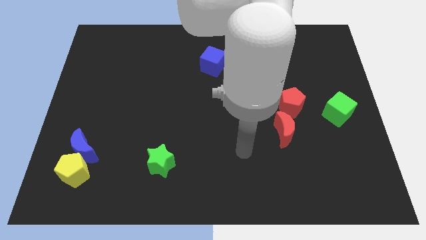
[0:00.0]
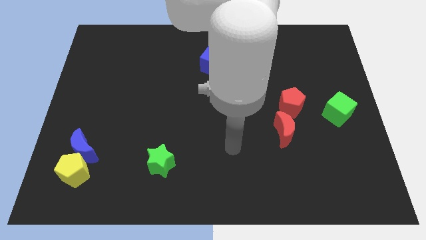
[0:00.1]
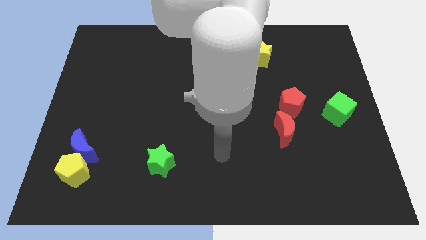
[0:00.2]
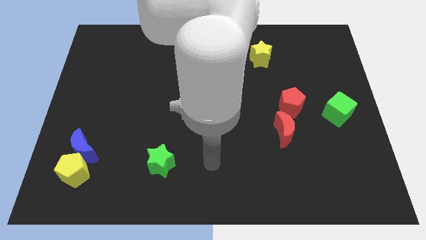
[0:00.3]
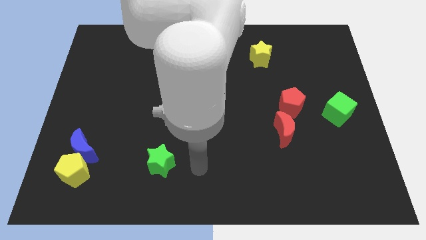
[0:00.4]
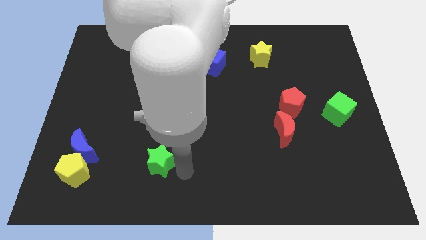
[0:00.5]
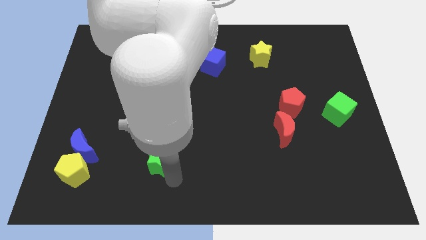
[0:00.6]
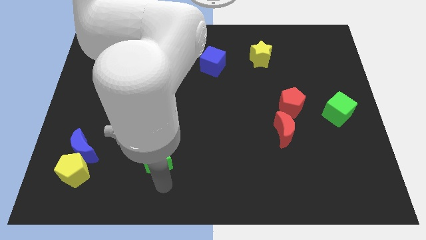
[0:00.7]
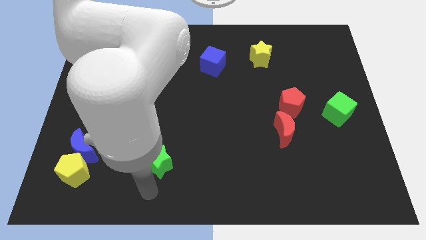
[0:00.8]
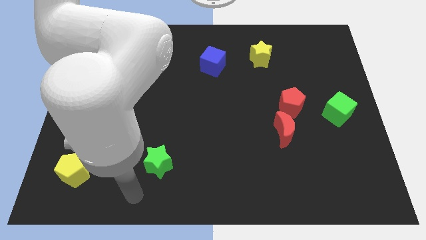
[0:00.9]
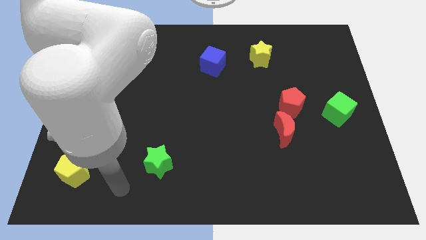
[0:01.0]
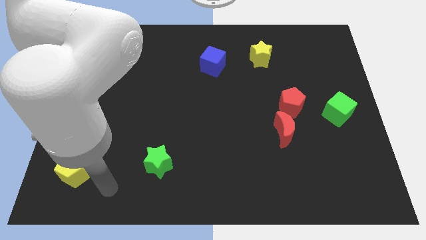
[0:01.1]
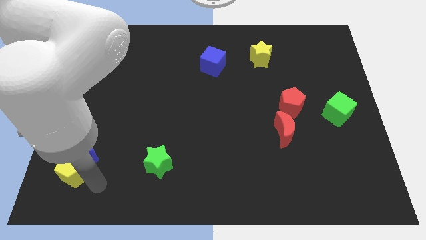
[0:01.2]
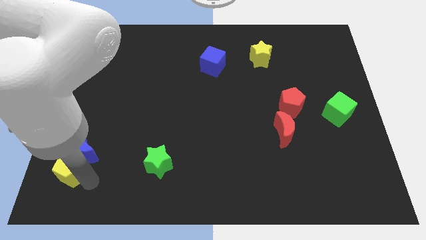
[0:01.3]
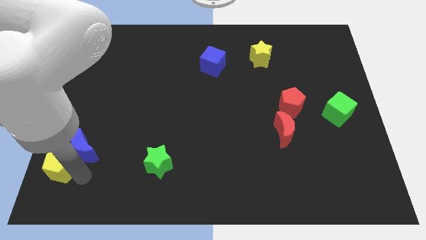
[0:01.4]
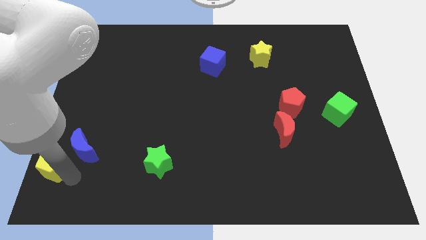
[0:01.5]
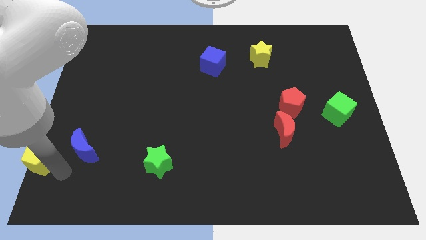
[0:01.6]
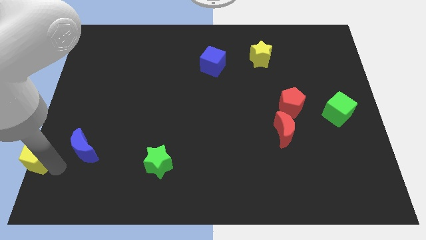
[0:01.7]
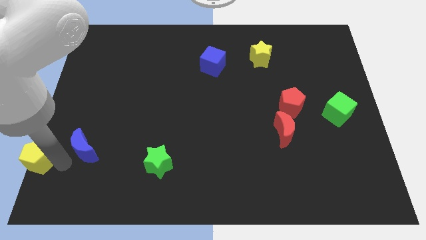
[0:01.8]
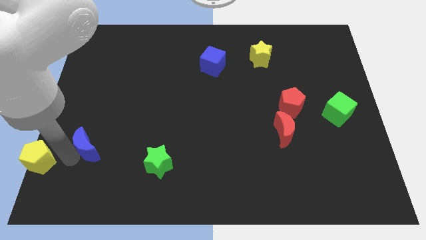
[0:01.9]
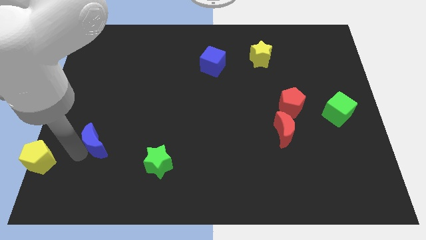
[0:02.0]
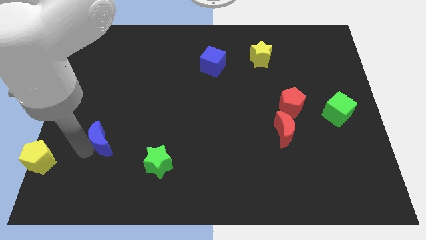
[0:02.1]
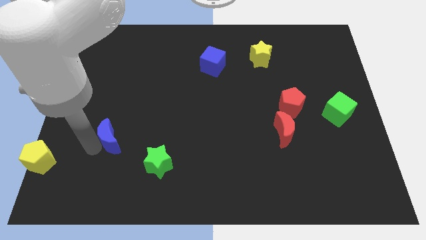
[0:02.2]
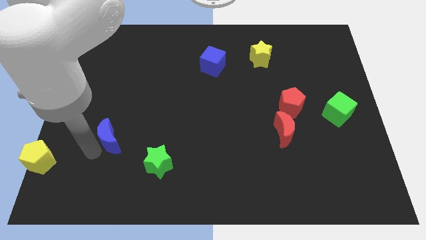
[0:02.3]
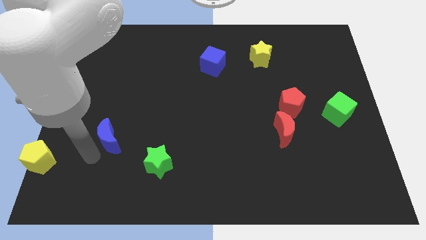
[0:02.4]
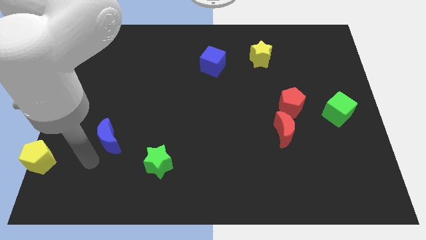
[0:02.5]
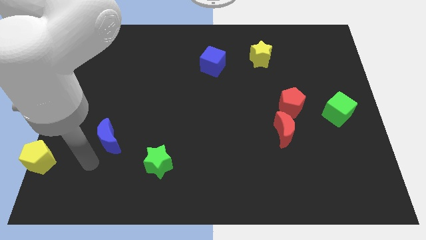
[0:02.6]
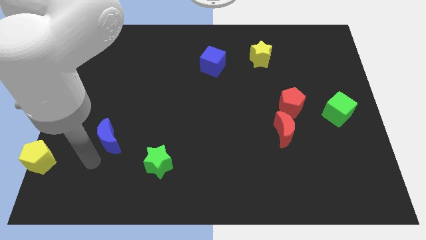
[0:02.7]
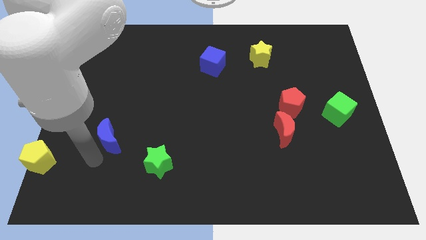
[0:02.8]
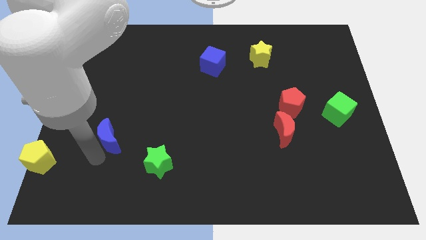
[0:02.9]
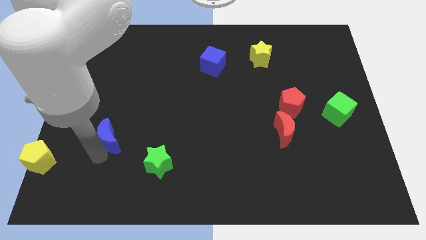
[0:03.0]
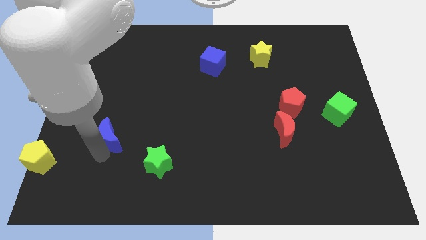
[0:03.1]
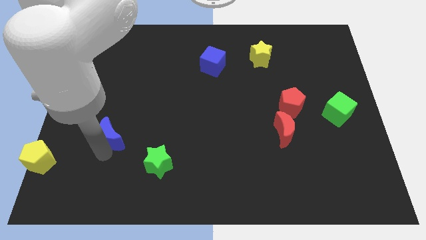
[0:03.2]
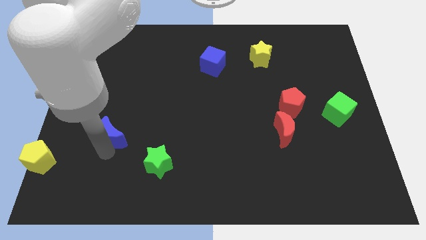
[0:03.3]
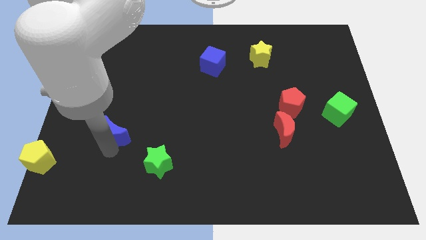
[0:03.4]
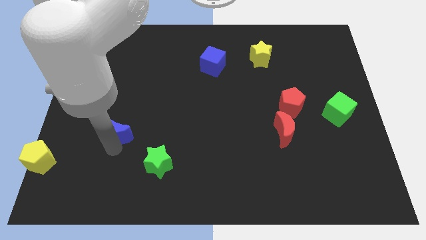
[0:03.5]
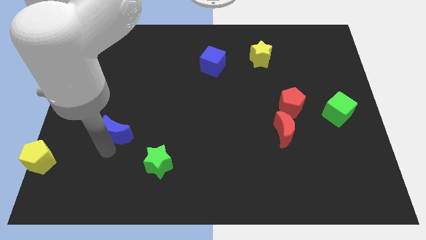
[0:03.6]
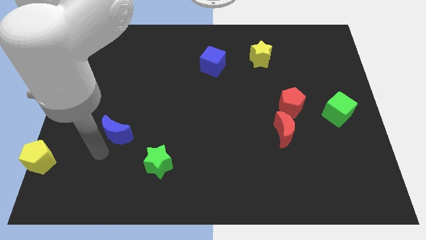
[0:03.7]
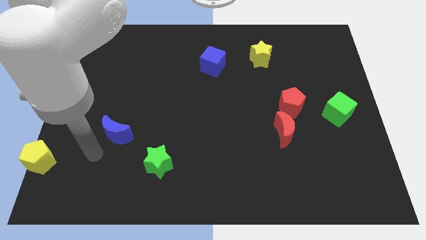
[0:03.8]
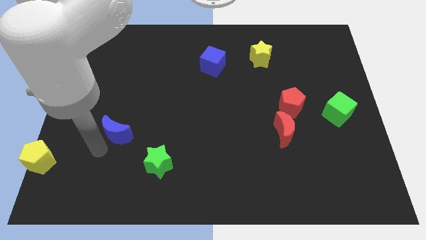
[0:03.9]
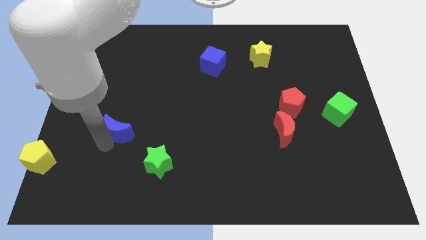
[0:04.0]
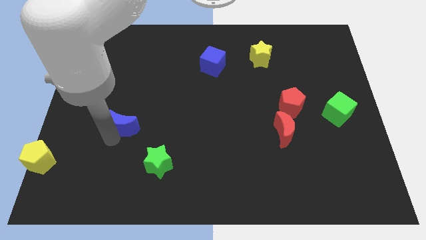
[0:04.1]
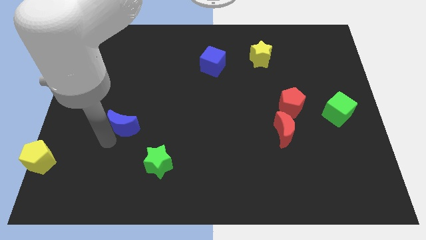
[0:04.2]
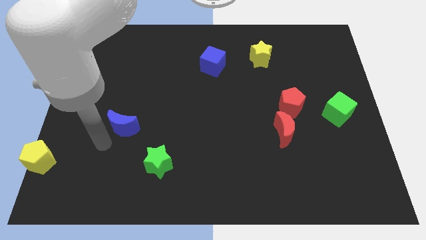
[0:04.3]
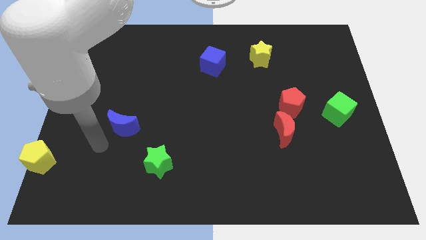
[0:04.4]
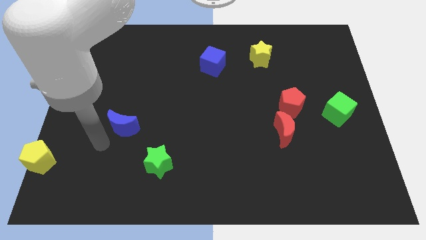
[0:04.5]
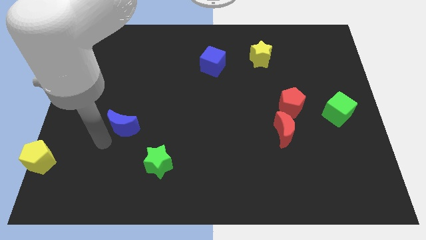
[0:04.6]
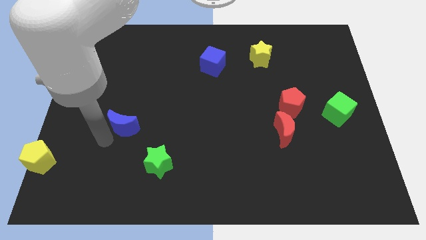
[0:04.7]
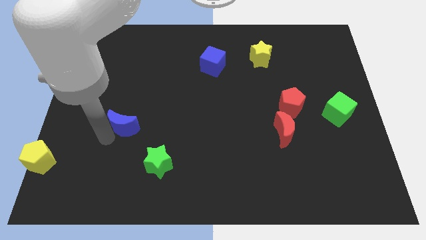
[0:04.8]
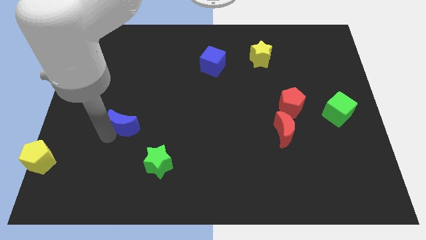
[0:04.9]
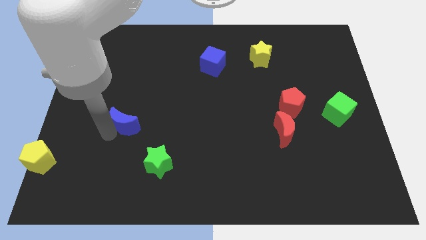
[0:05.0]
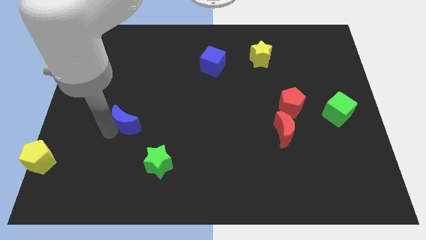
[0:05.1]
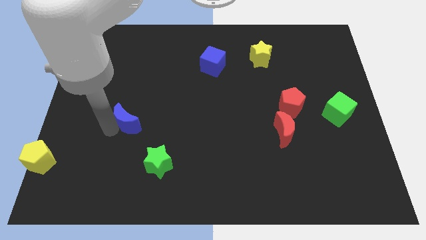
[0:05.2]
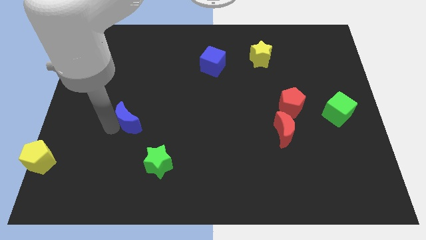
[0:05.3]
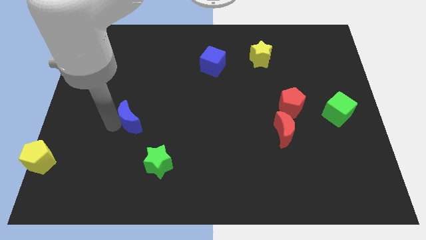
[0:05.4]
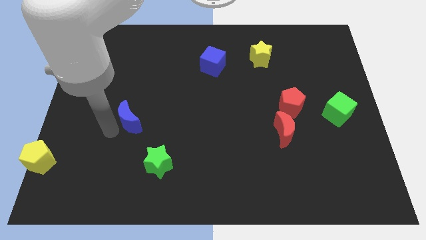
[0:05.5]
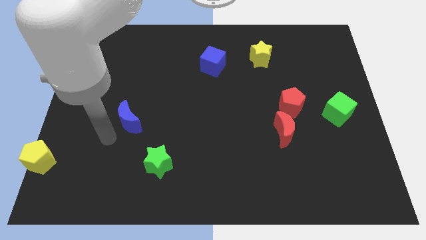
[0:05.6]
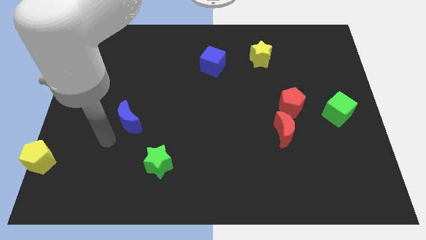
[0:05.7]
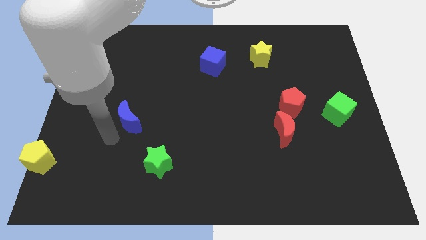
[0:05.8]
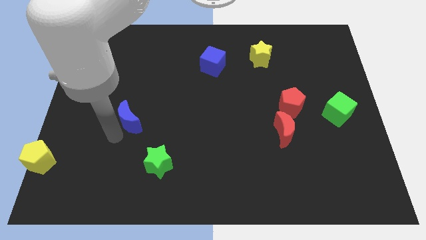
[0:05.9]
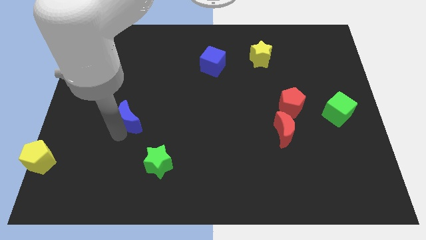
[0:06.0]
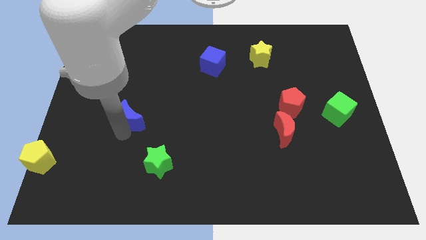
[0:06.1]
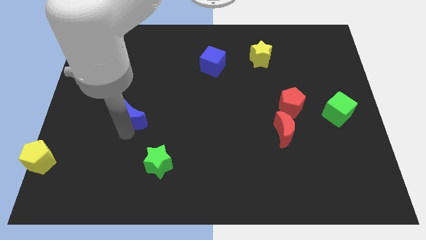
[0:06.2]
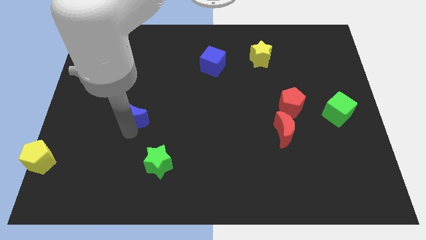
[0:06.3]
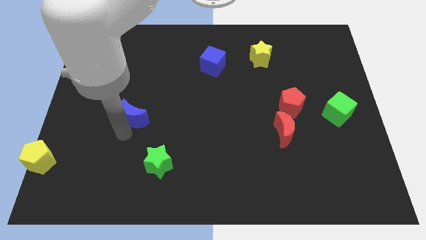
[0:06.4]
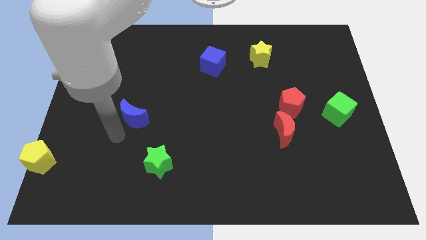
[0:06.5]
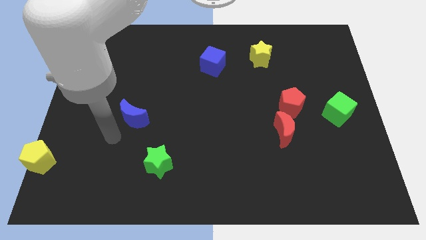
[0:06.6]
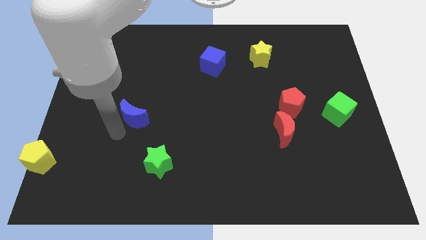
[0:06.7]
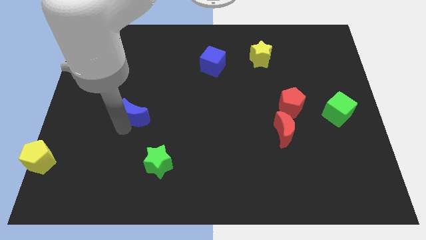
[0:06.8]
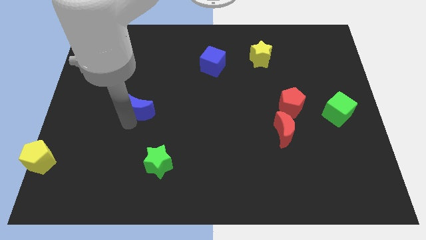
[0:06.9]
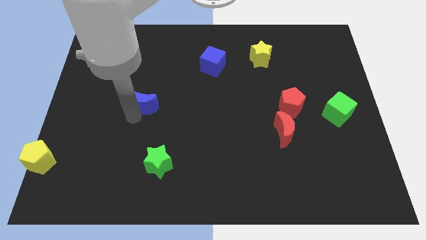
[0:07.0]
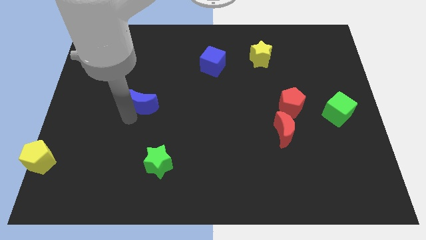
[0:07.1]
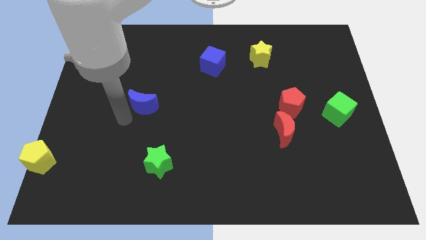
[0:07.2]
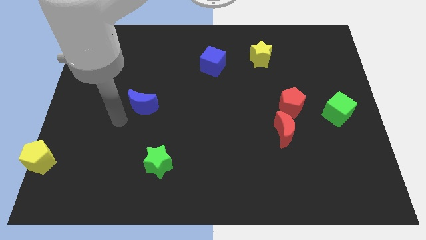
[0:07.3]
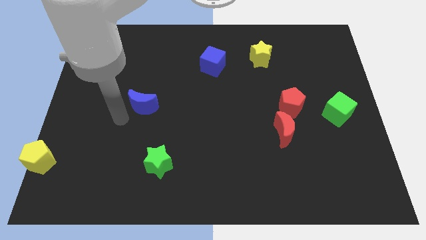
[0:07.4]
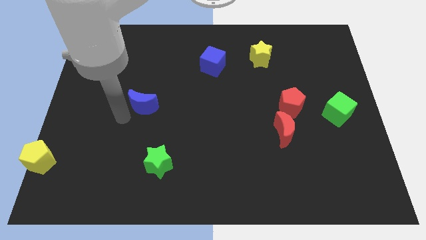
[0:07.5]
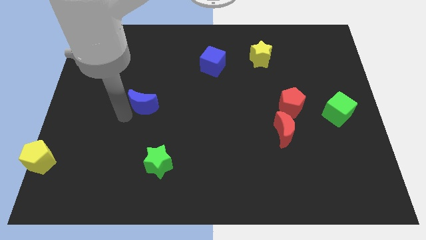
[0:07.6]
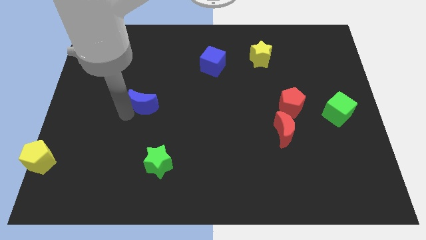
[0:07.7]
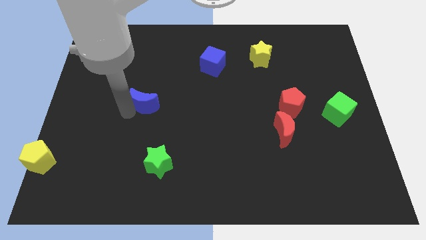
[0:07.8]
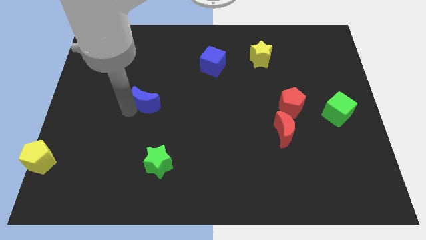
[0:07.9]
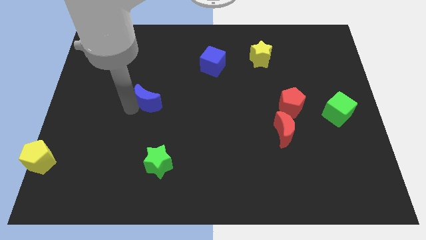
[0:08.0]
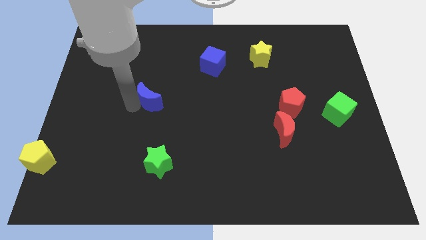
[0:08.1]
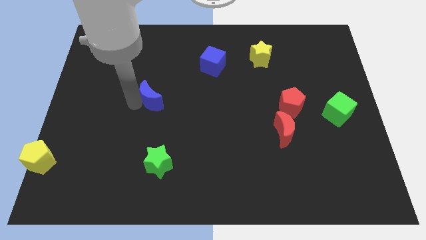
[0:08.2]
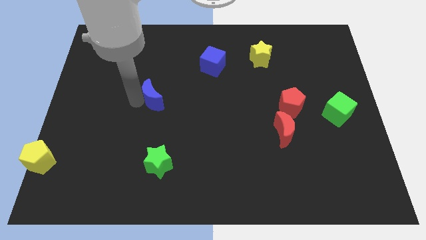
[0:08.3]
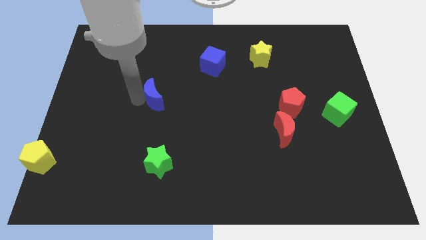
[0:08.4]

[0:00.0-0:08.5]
push the blue moon diagonally up and right
